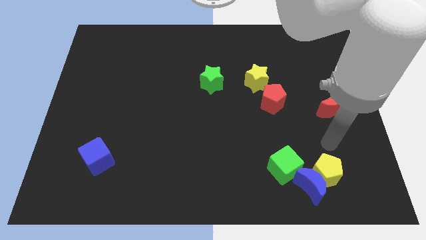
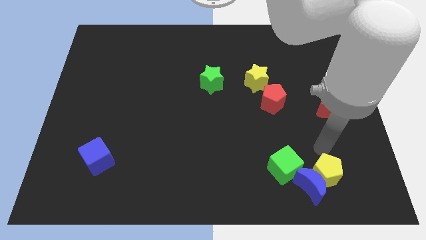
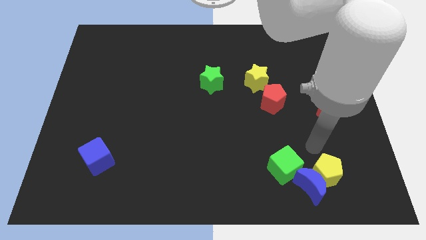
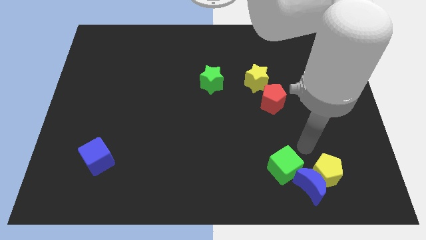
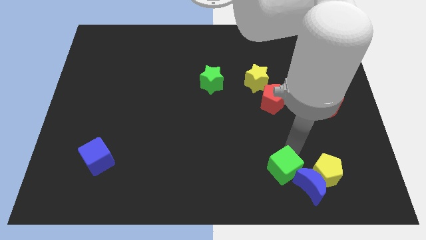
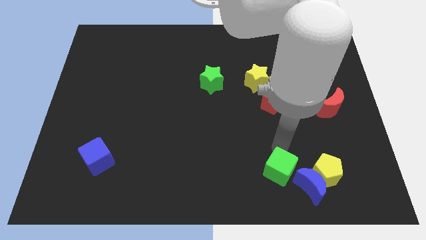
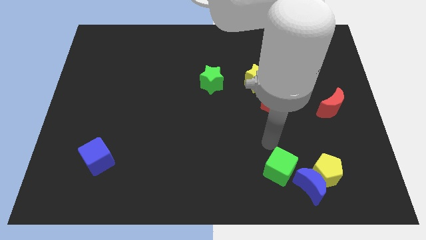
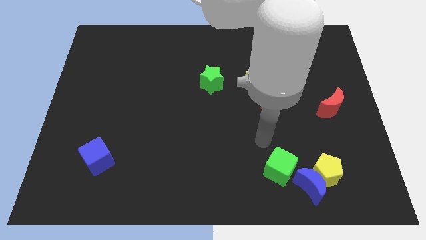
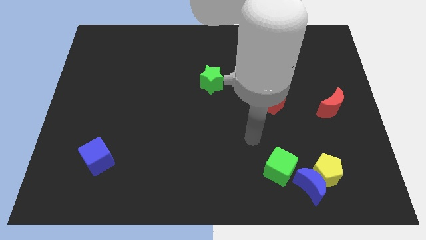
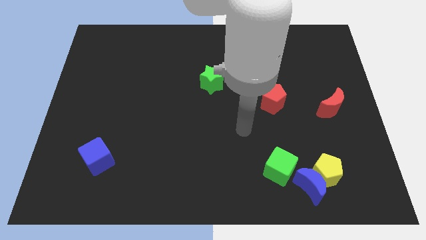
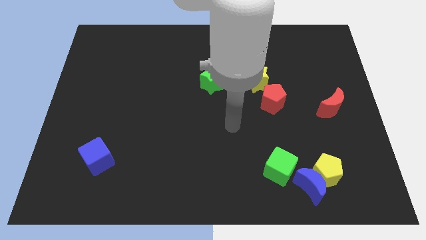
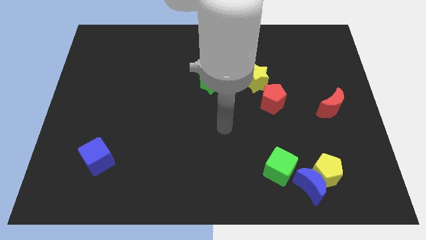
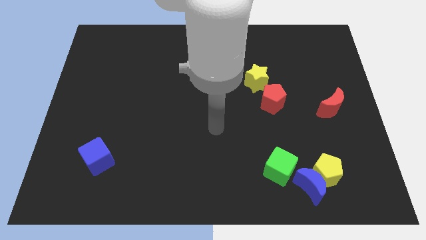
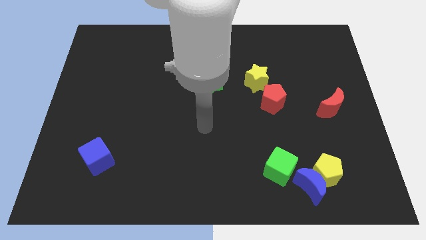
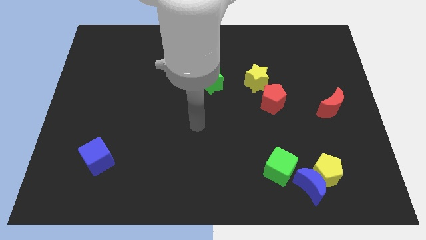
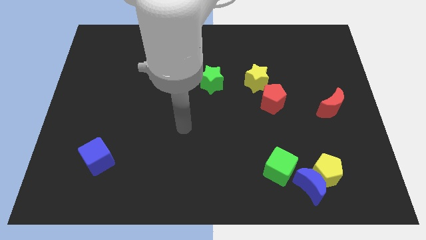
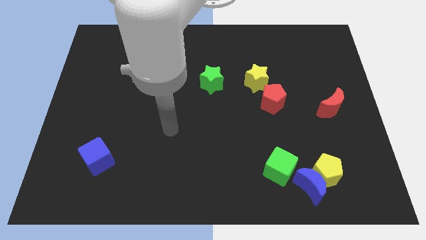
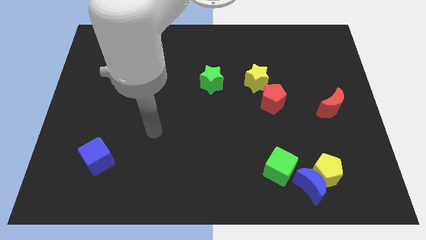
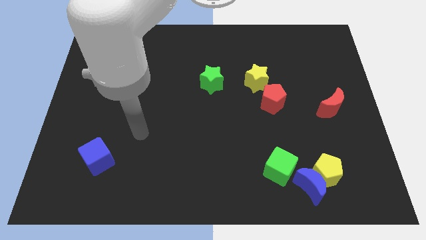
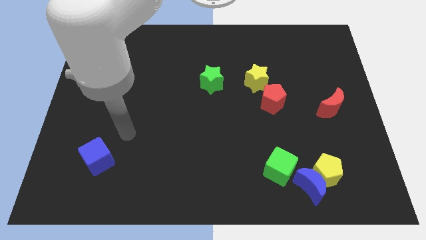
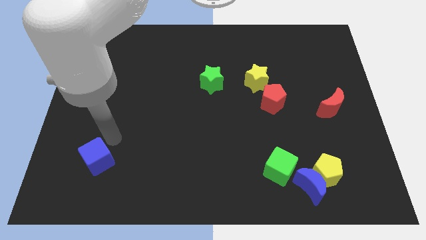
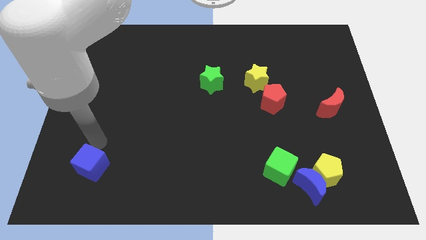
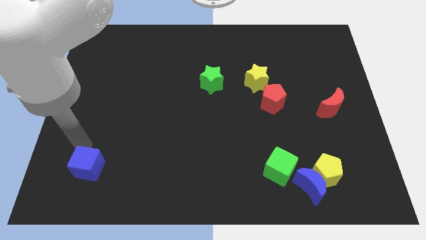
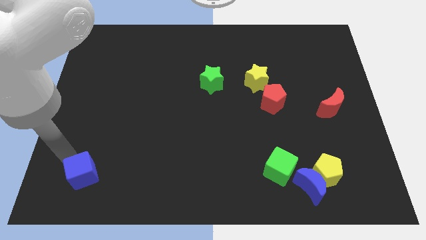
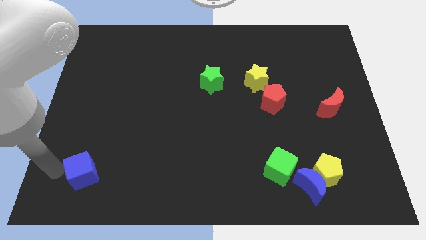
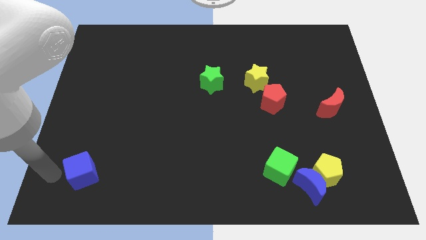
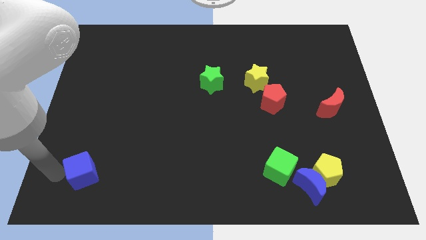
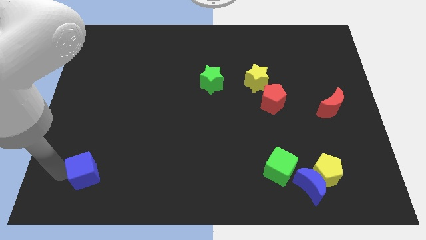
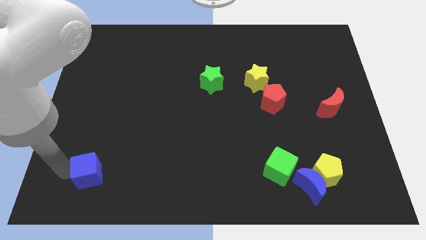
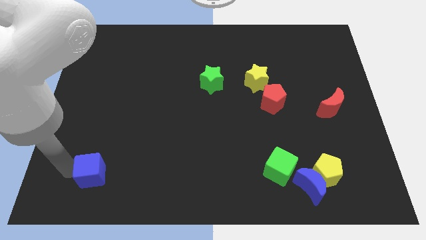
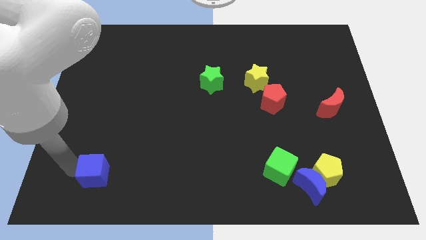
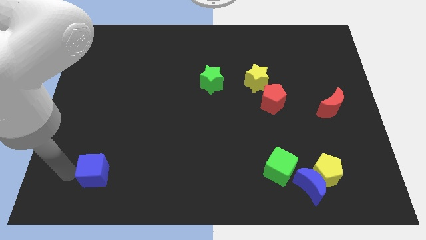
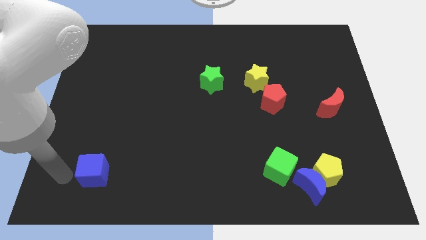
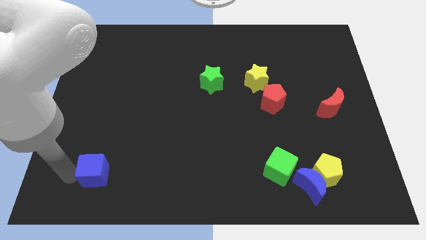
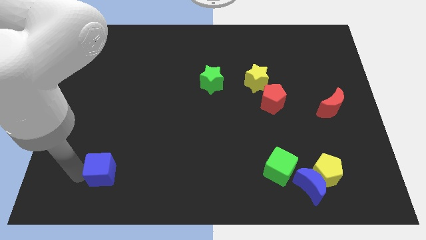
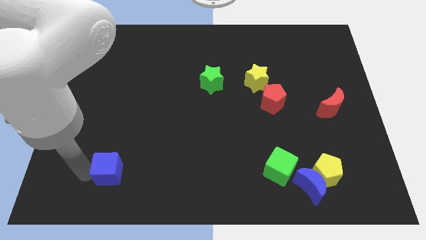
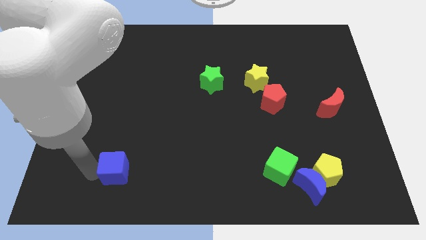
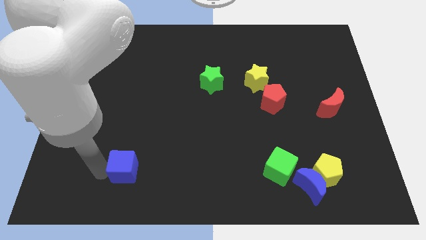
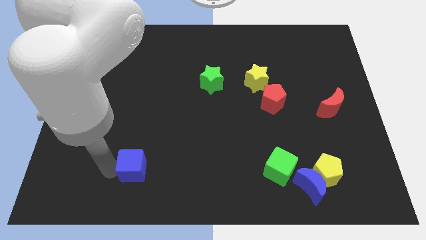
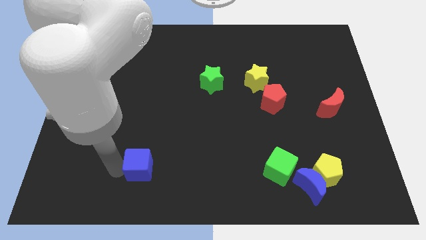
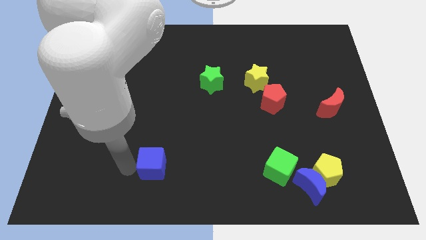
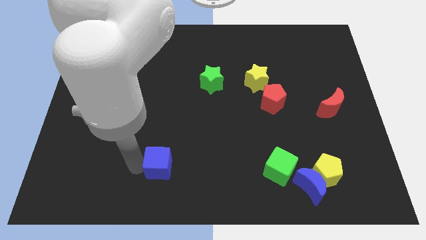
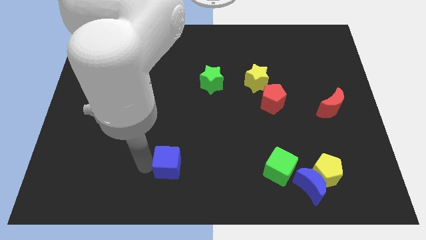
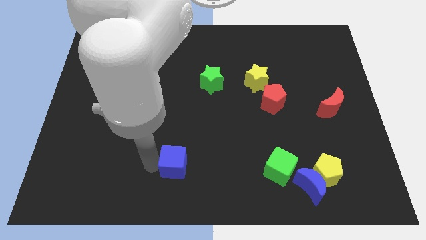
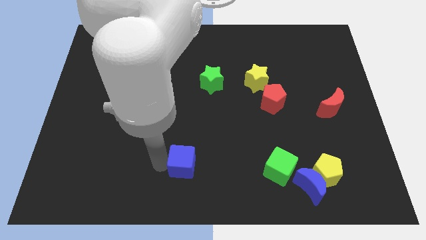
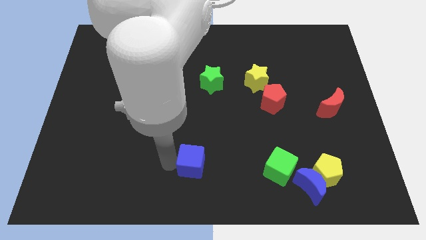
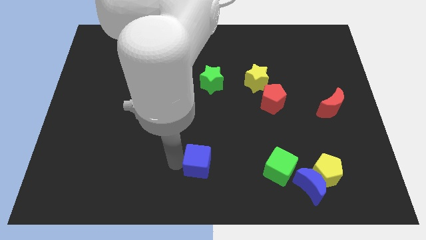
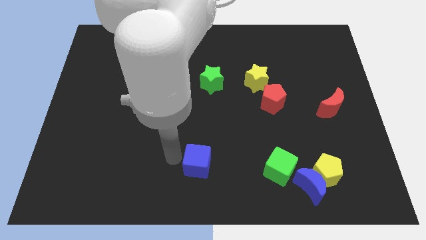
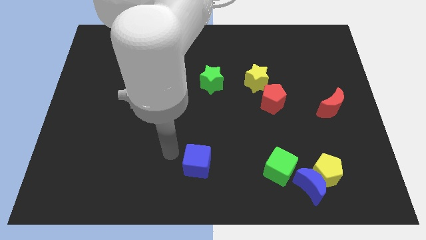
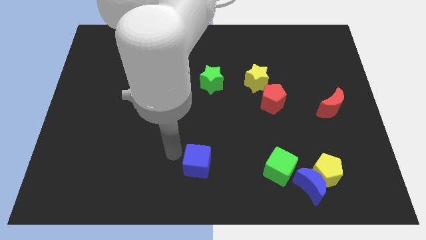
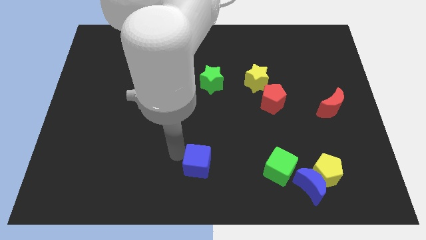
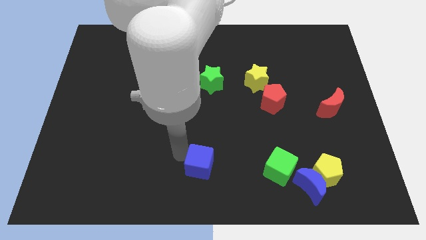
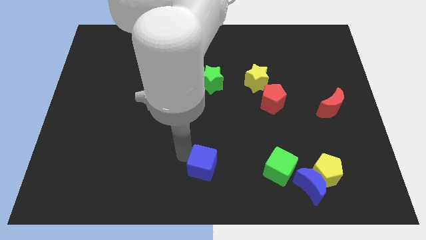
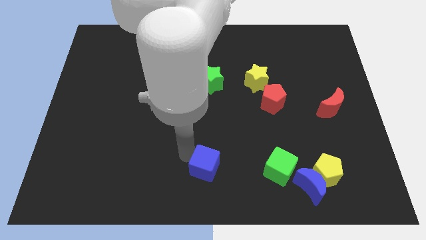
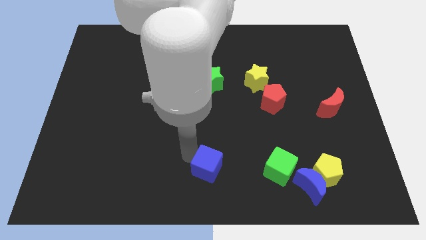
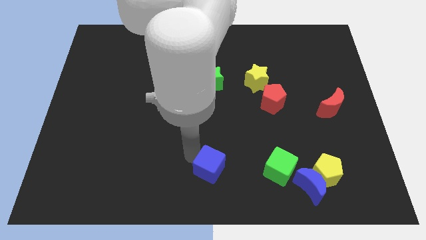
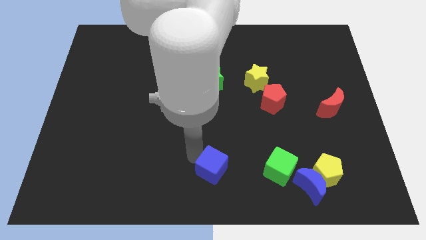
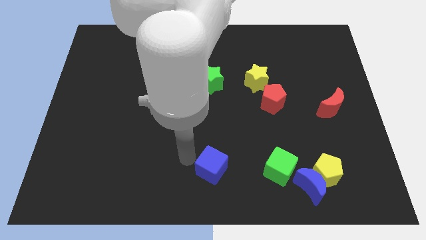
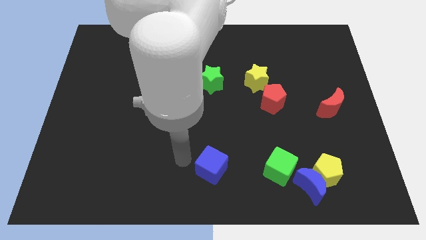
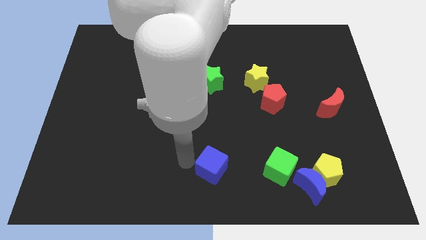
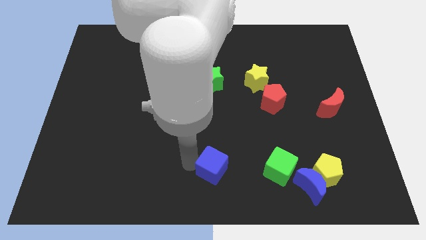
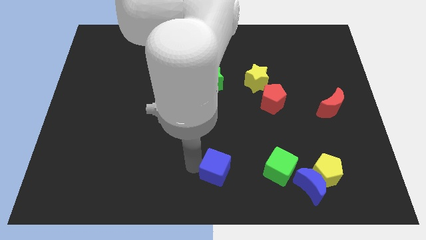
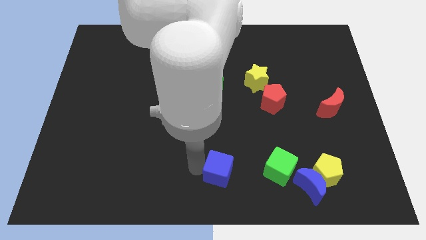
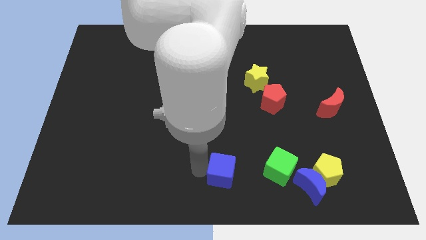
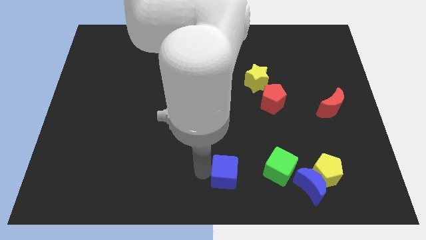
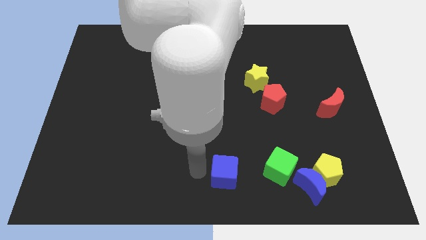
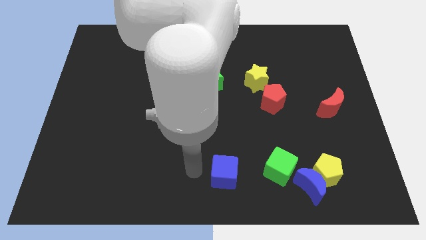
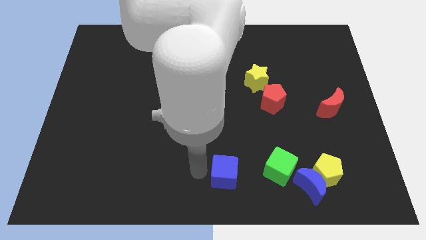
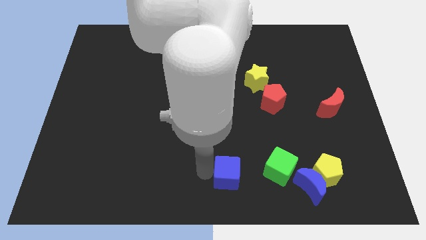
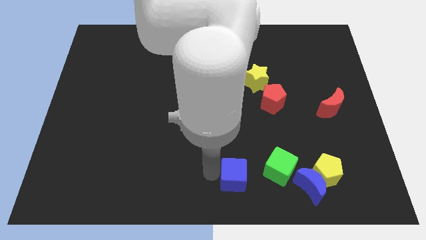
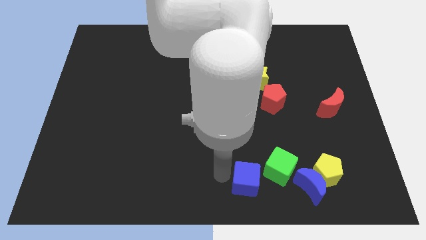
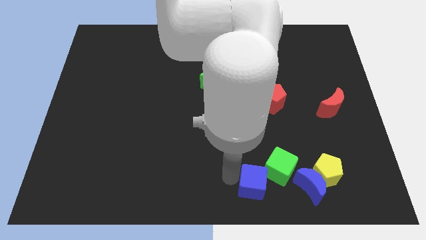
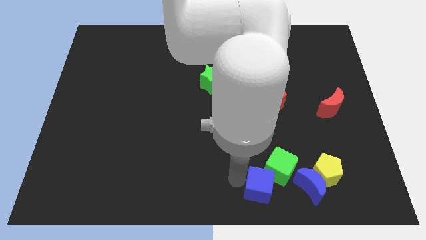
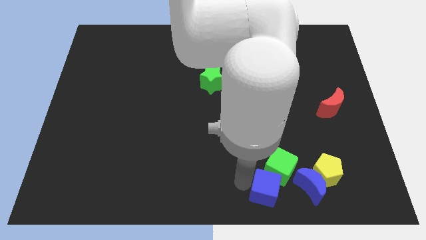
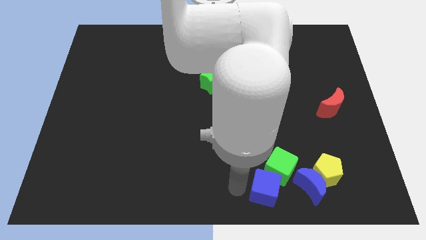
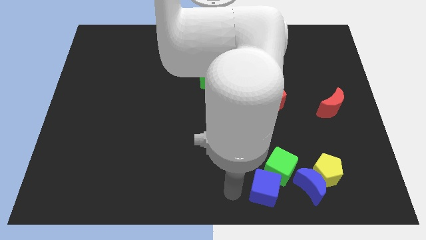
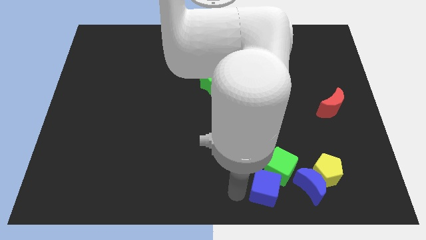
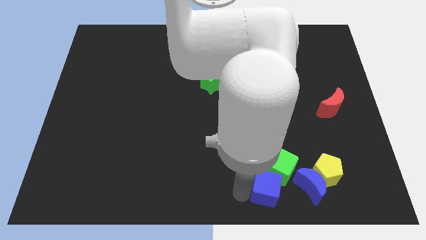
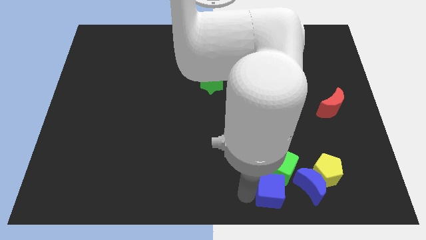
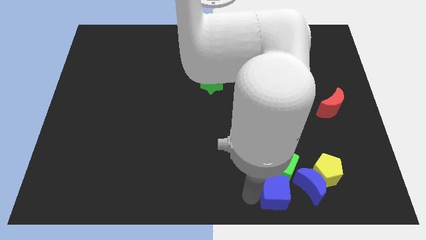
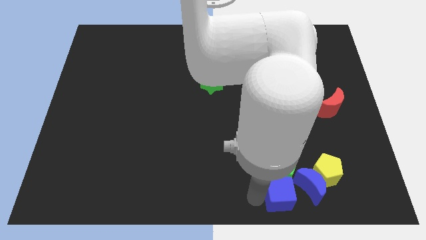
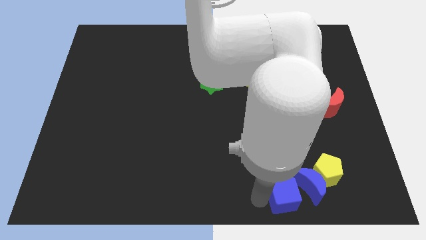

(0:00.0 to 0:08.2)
put the blue cube close to the blue moon
